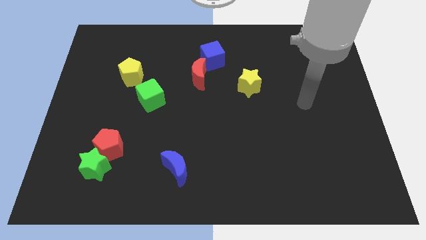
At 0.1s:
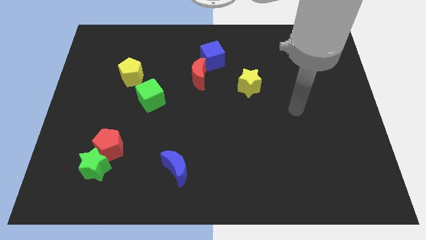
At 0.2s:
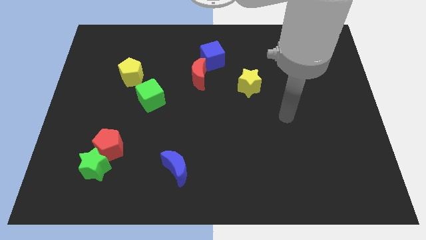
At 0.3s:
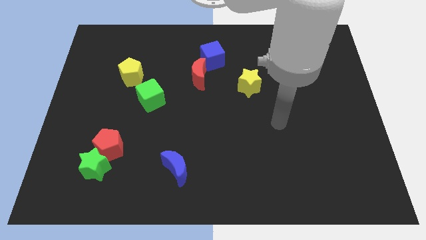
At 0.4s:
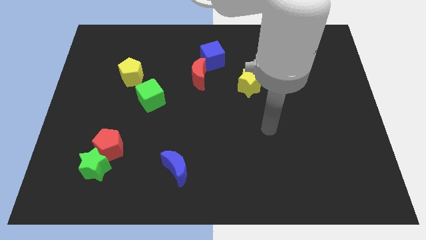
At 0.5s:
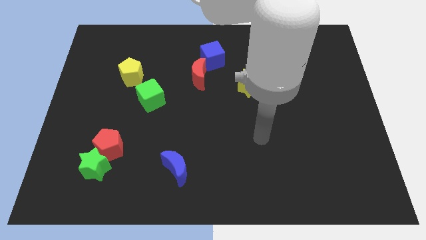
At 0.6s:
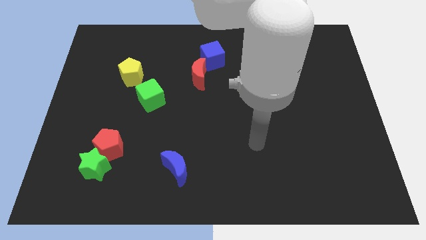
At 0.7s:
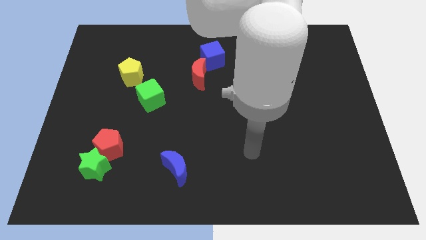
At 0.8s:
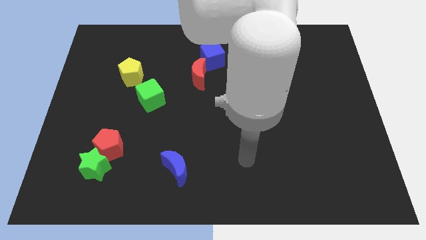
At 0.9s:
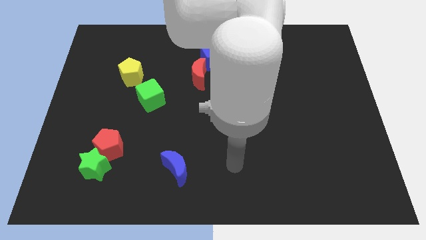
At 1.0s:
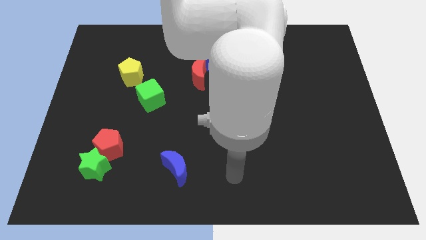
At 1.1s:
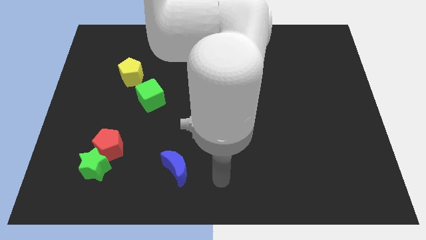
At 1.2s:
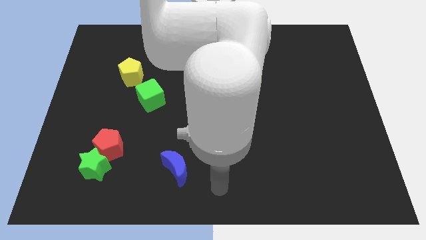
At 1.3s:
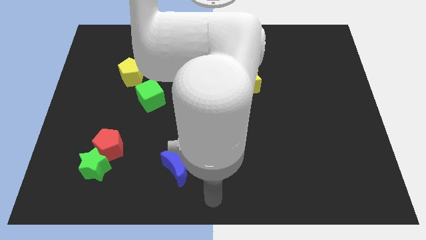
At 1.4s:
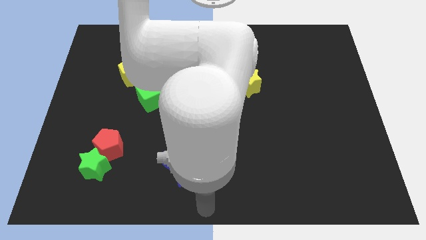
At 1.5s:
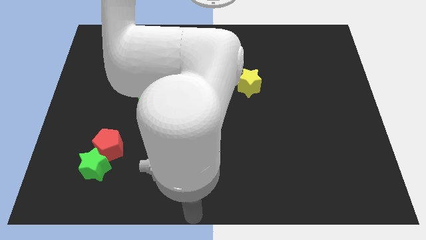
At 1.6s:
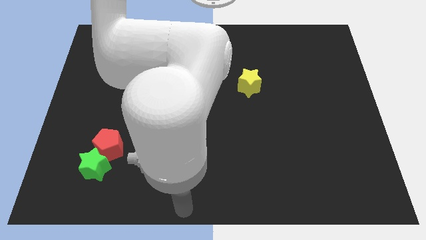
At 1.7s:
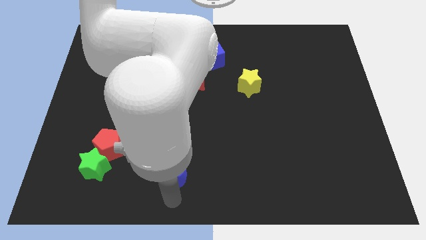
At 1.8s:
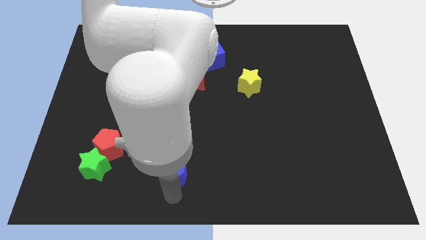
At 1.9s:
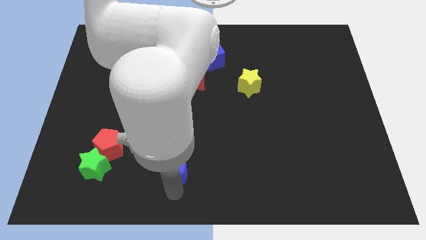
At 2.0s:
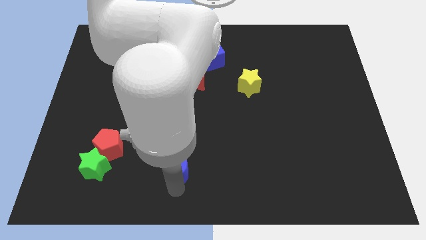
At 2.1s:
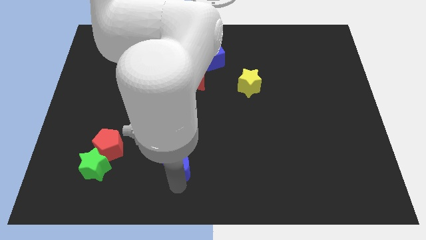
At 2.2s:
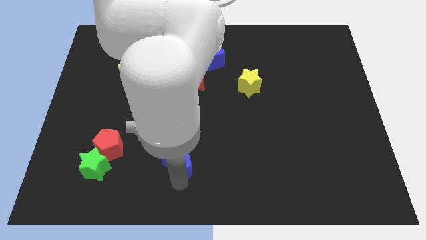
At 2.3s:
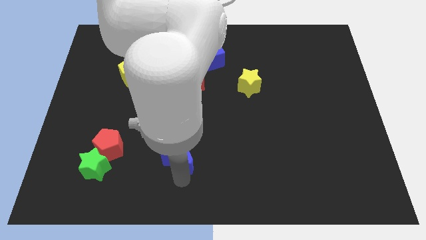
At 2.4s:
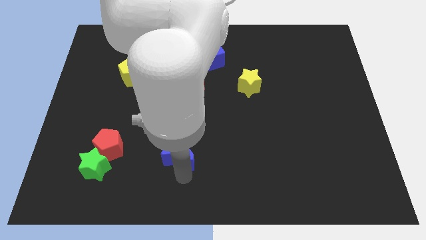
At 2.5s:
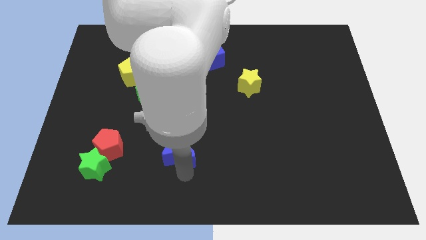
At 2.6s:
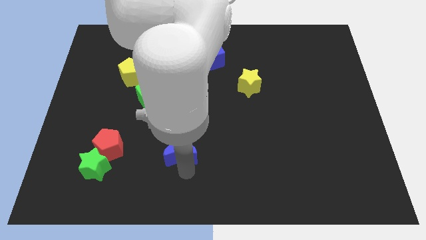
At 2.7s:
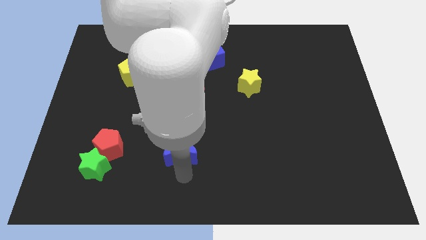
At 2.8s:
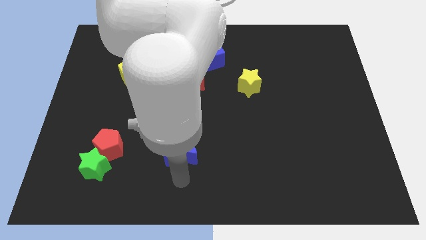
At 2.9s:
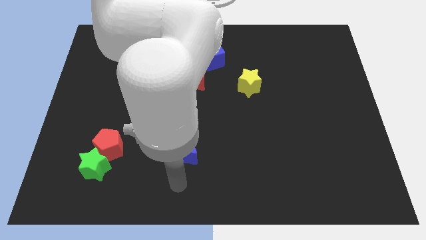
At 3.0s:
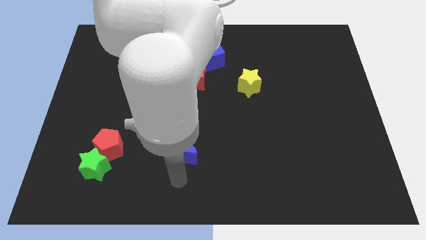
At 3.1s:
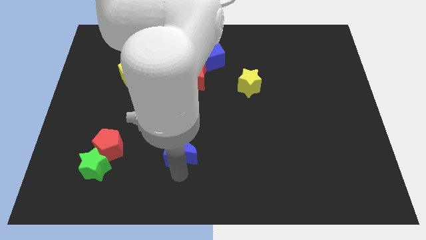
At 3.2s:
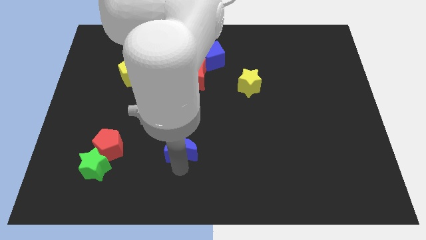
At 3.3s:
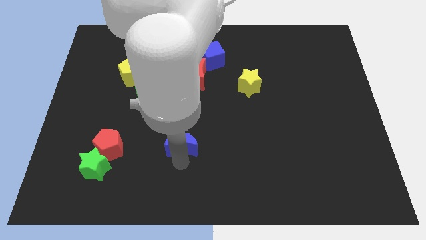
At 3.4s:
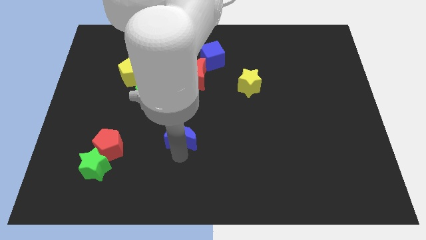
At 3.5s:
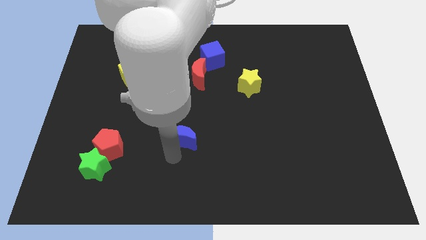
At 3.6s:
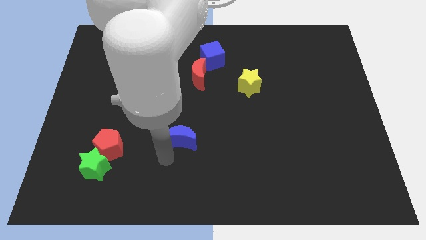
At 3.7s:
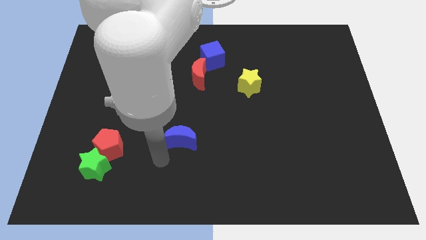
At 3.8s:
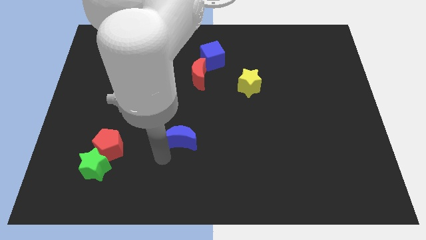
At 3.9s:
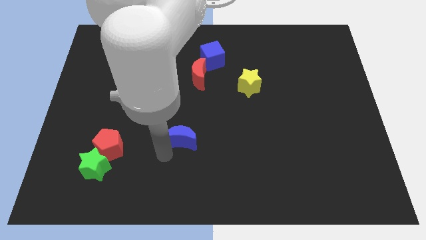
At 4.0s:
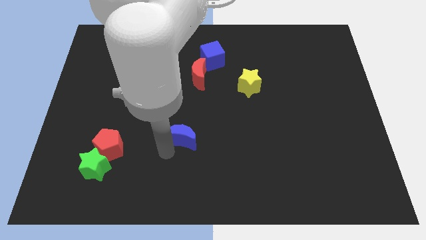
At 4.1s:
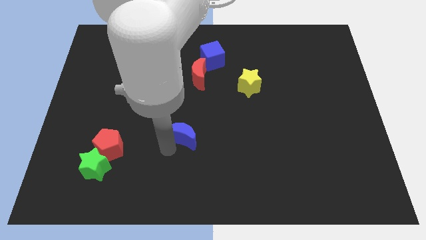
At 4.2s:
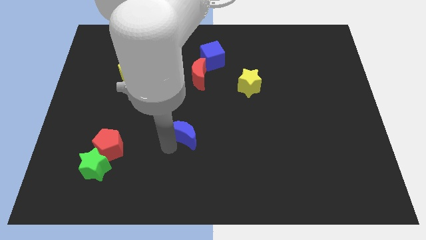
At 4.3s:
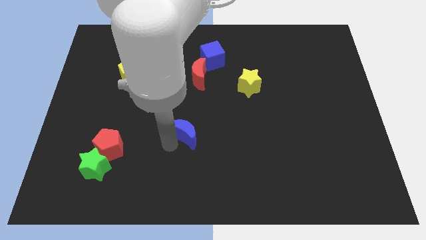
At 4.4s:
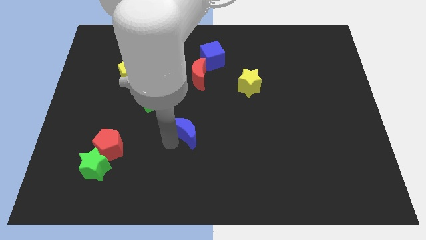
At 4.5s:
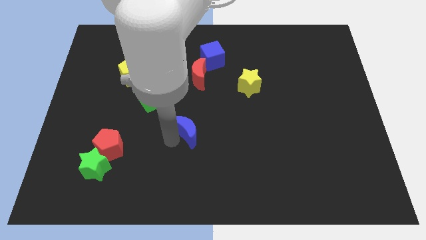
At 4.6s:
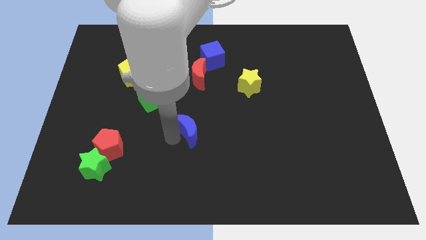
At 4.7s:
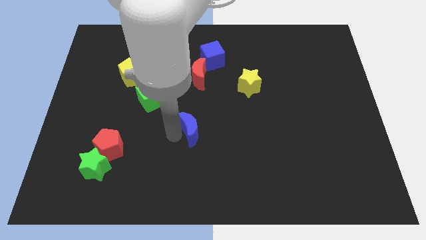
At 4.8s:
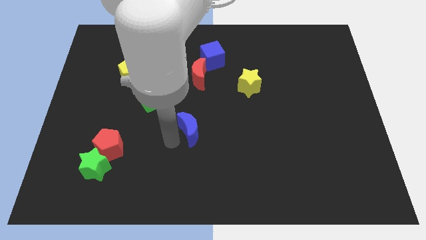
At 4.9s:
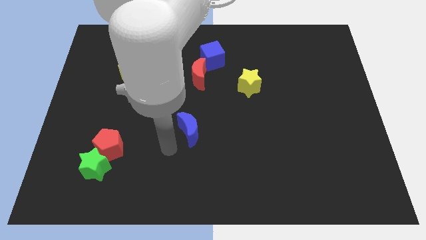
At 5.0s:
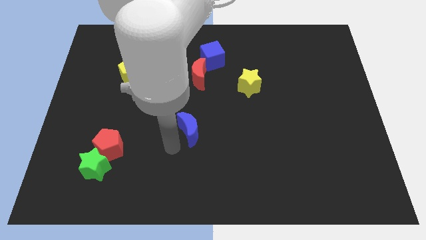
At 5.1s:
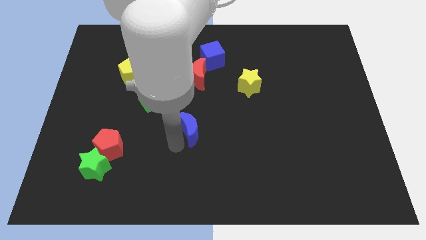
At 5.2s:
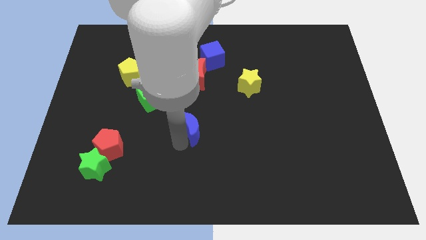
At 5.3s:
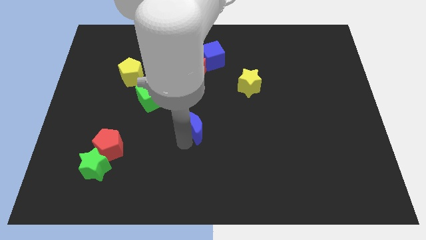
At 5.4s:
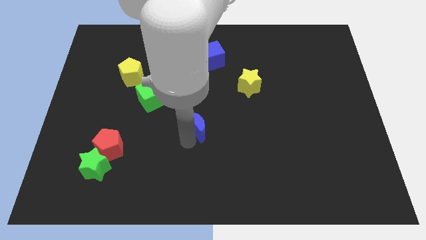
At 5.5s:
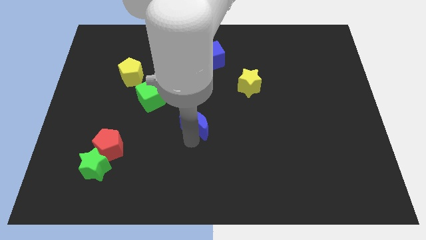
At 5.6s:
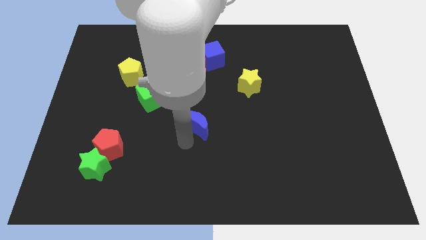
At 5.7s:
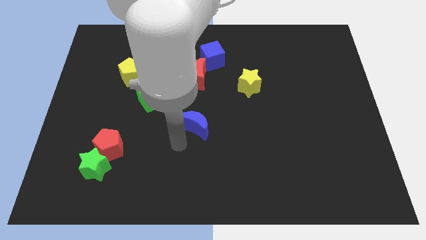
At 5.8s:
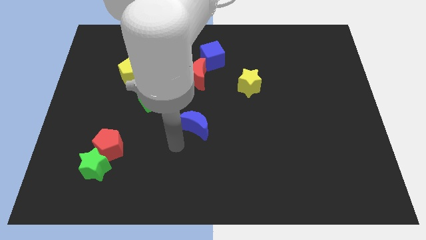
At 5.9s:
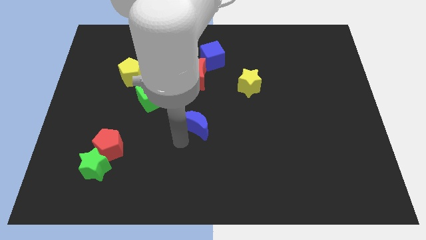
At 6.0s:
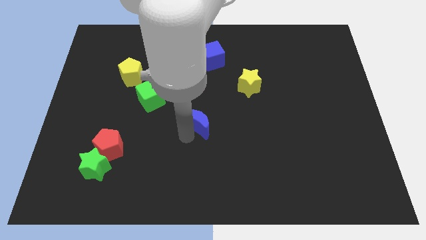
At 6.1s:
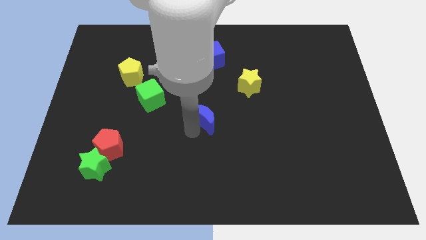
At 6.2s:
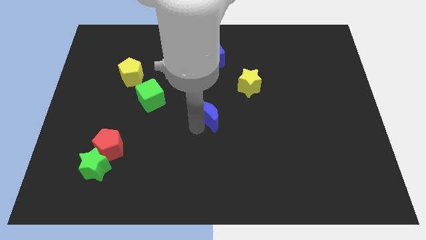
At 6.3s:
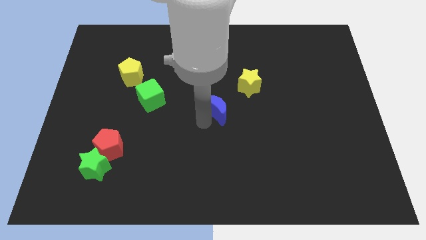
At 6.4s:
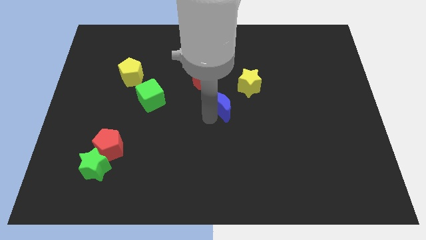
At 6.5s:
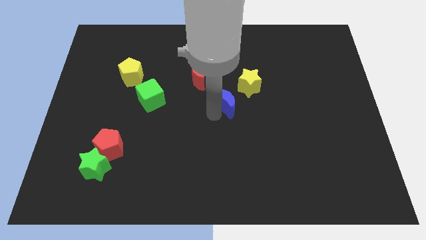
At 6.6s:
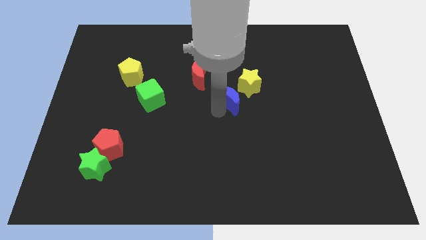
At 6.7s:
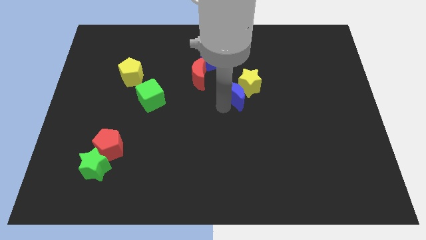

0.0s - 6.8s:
put the blue moon towards the yellow star

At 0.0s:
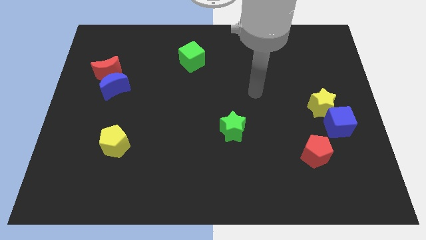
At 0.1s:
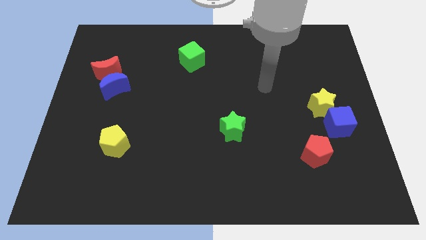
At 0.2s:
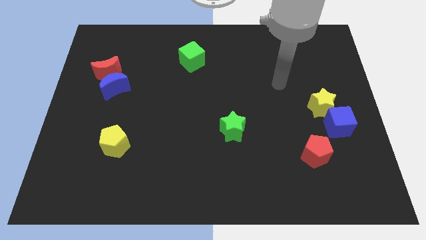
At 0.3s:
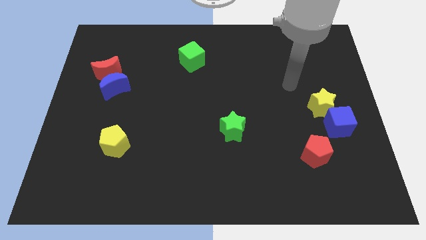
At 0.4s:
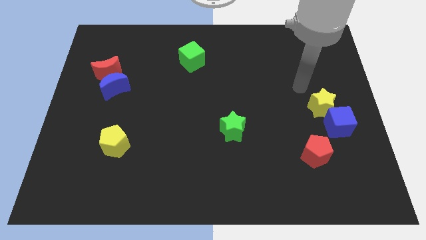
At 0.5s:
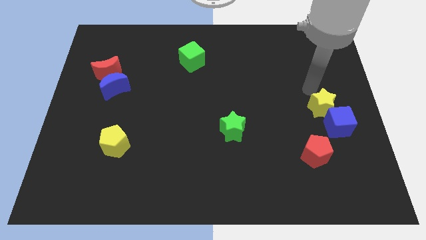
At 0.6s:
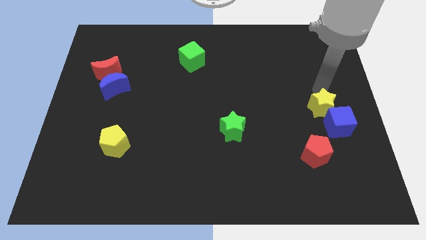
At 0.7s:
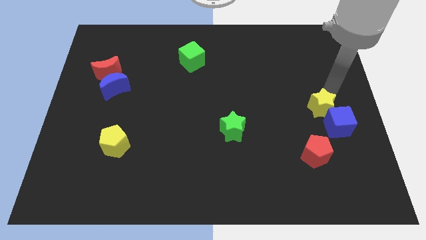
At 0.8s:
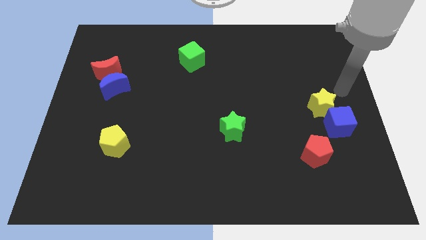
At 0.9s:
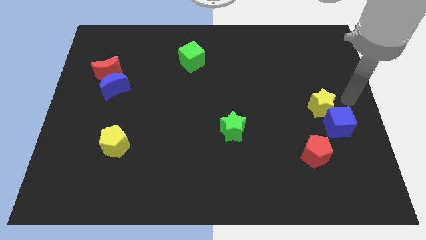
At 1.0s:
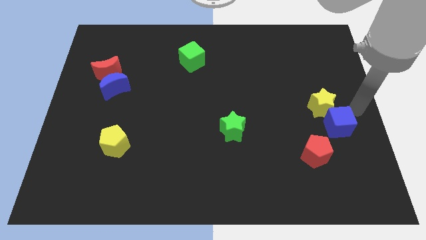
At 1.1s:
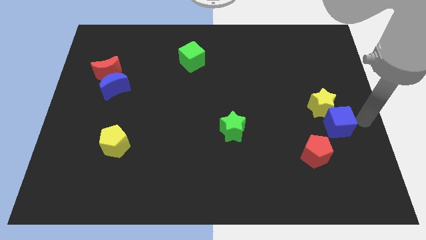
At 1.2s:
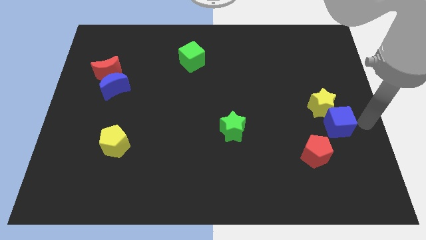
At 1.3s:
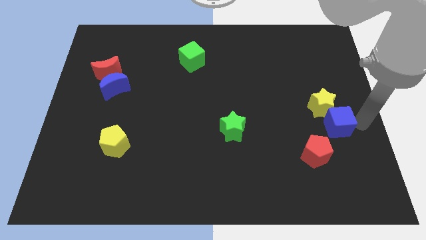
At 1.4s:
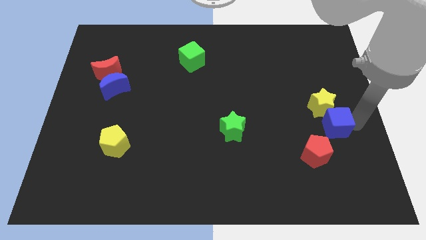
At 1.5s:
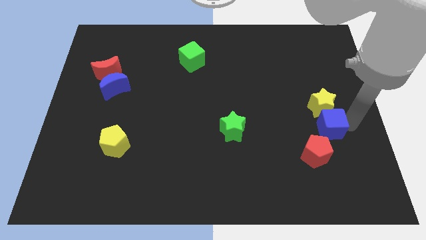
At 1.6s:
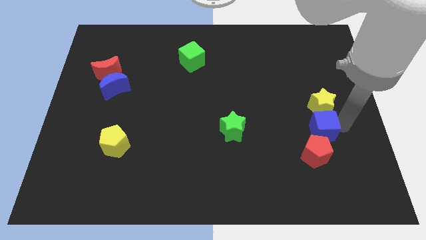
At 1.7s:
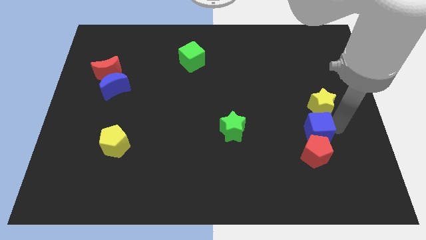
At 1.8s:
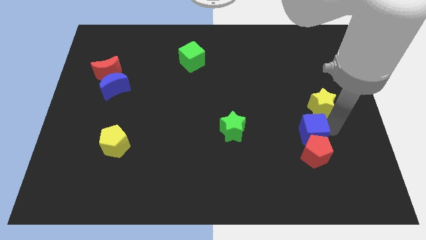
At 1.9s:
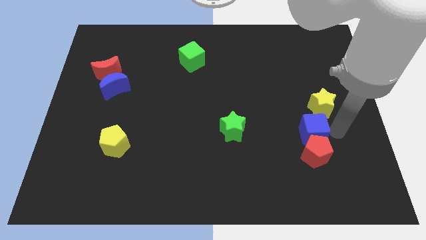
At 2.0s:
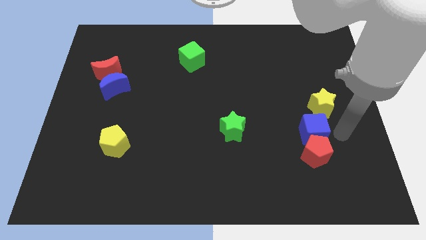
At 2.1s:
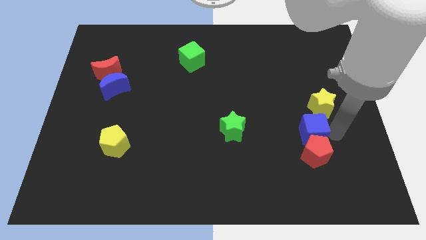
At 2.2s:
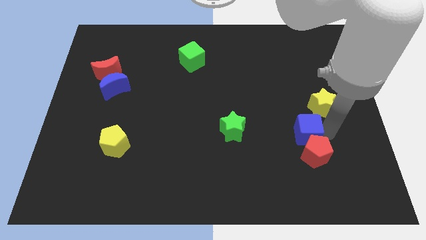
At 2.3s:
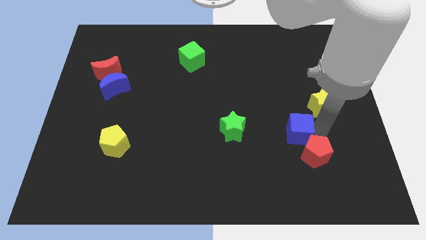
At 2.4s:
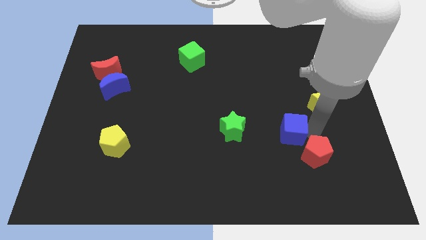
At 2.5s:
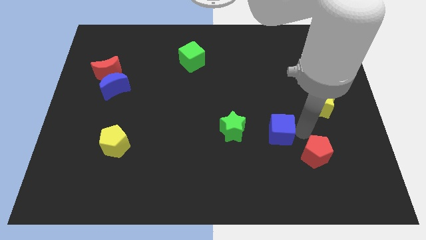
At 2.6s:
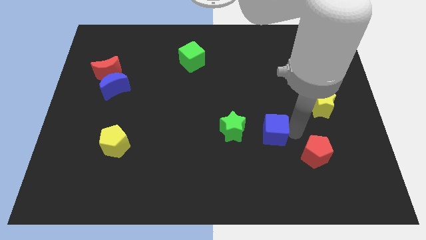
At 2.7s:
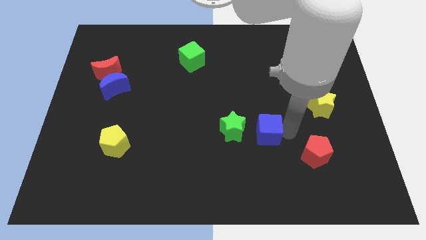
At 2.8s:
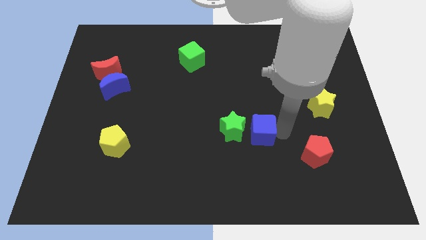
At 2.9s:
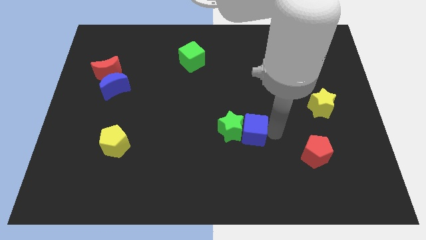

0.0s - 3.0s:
push the blue cube next to the green star
